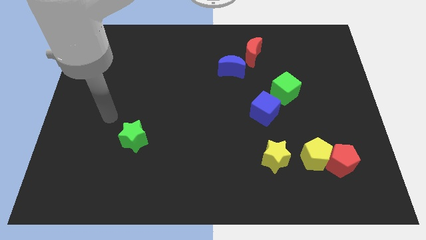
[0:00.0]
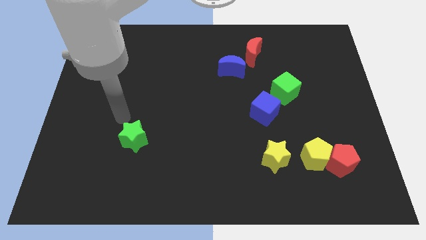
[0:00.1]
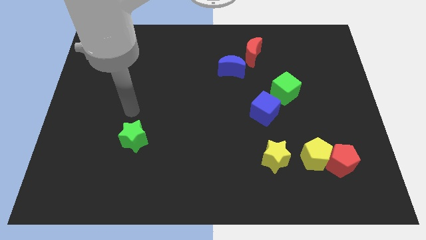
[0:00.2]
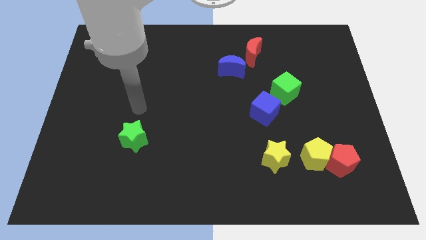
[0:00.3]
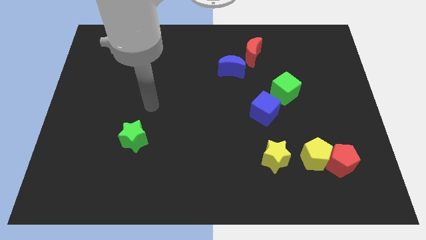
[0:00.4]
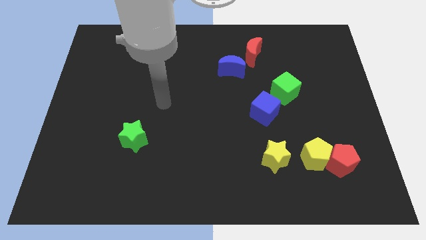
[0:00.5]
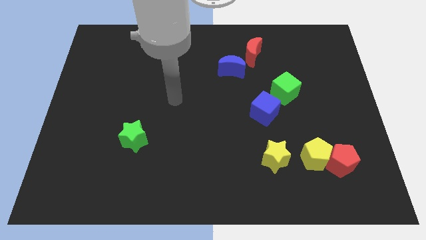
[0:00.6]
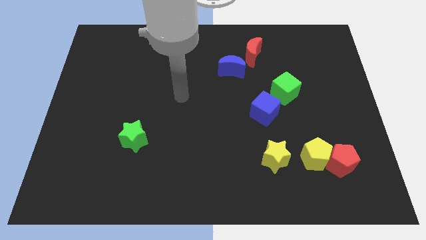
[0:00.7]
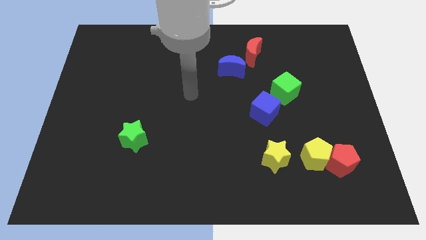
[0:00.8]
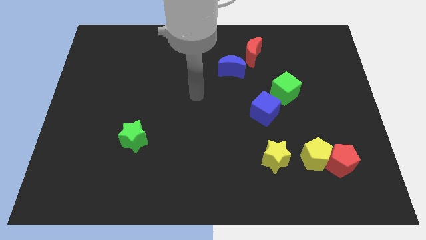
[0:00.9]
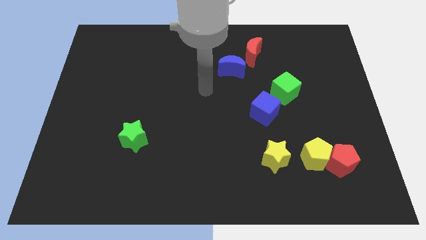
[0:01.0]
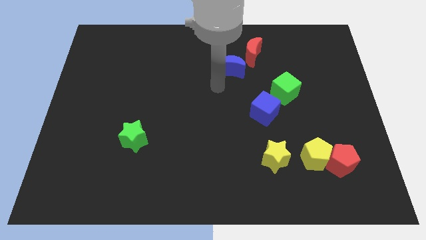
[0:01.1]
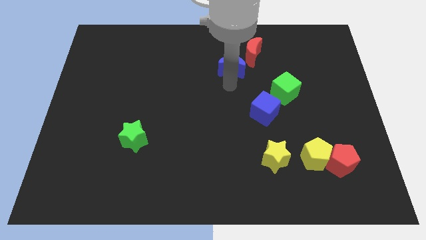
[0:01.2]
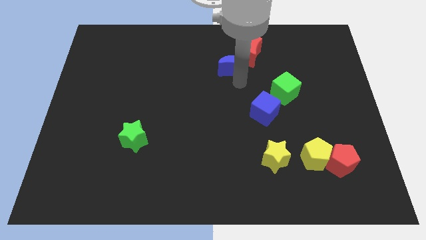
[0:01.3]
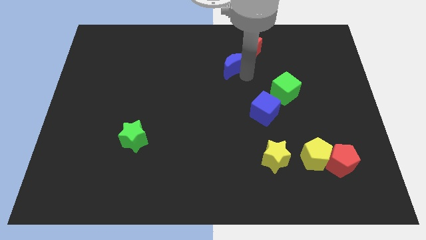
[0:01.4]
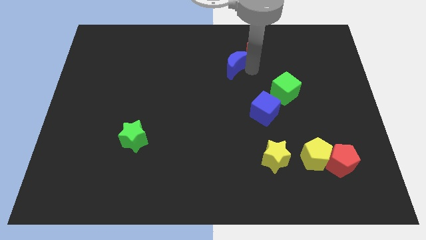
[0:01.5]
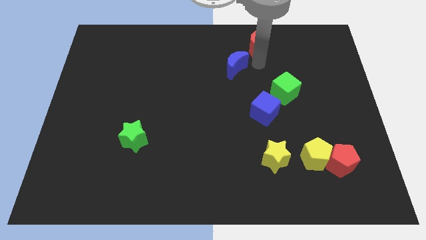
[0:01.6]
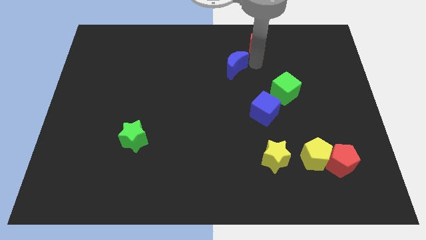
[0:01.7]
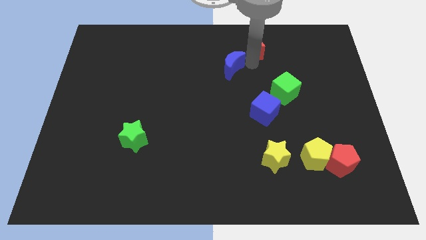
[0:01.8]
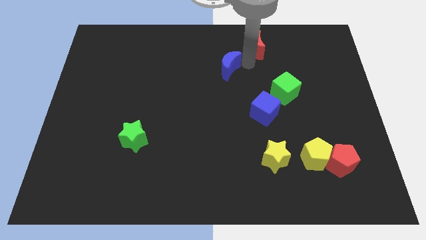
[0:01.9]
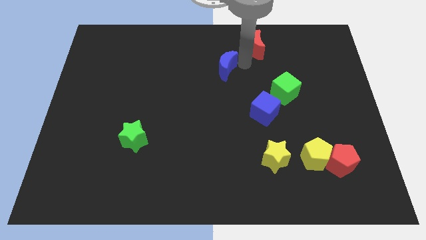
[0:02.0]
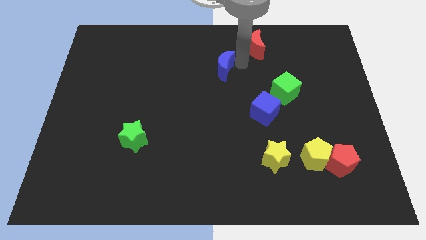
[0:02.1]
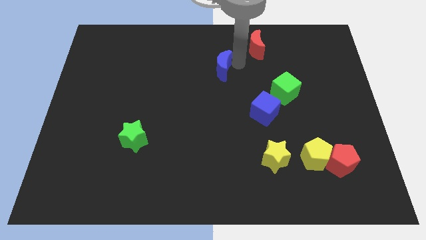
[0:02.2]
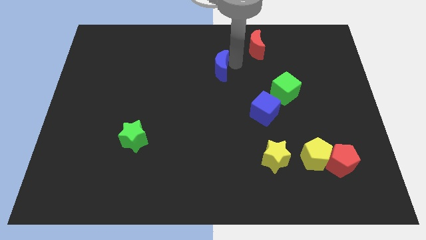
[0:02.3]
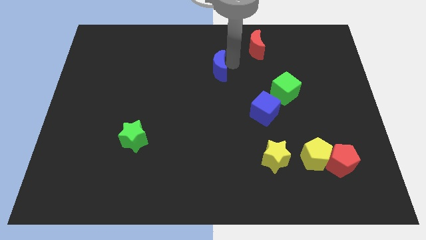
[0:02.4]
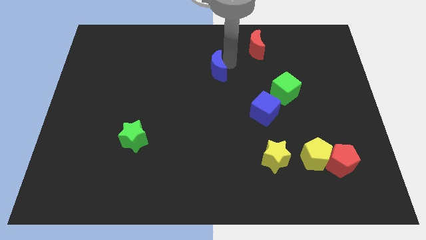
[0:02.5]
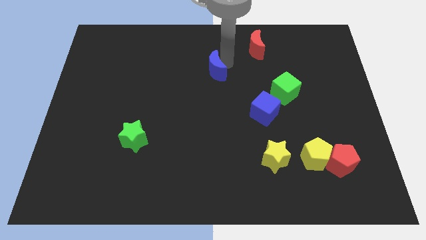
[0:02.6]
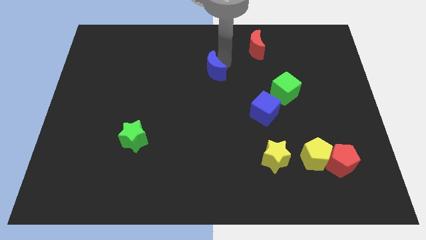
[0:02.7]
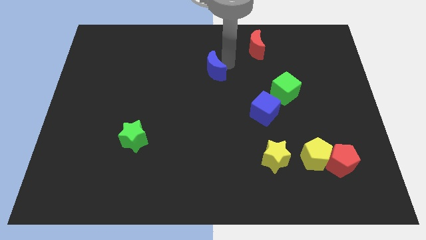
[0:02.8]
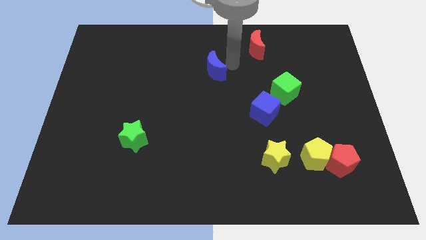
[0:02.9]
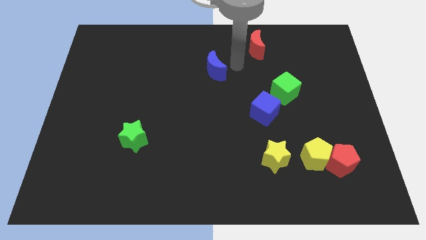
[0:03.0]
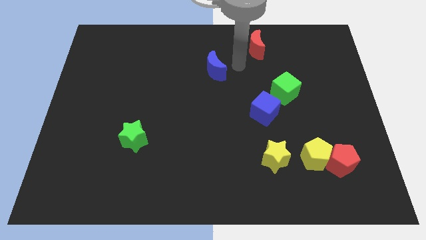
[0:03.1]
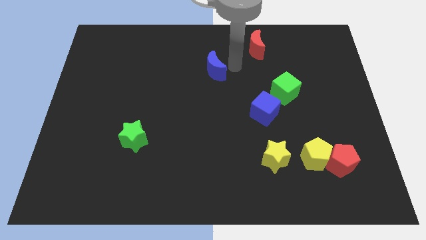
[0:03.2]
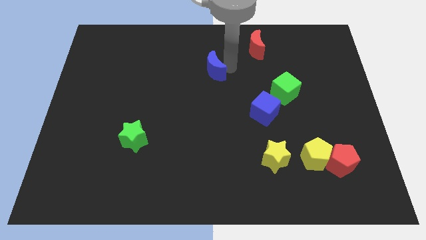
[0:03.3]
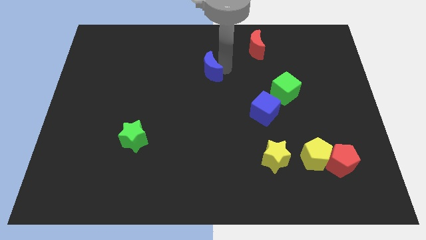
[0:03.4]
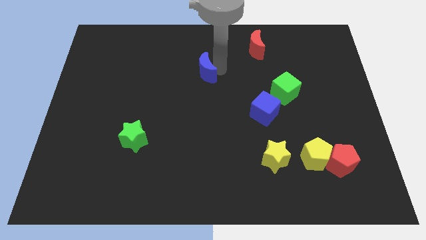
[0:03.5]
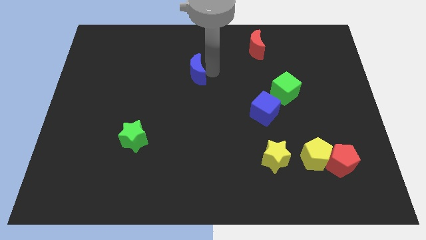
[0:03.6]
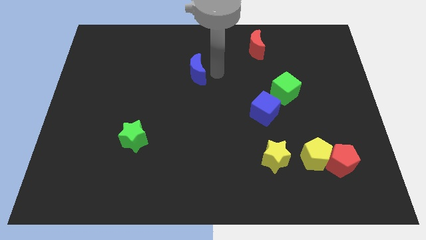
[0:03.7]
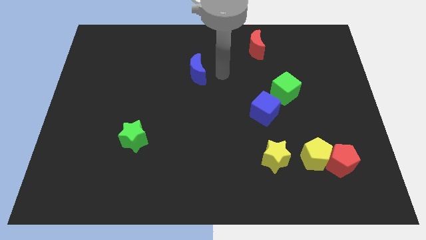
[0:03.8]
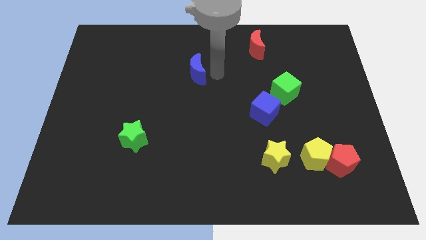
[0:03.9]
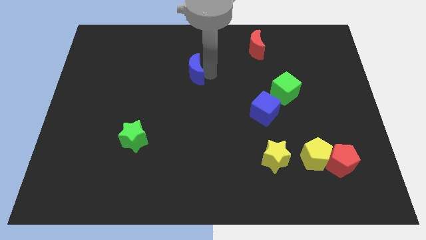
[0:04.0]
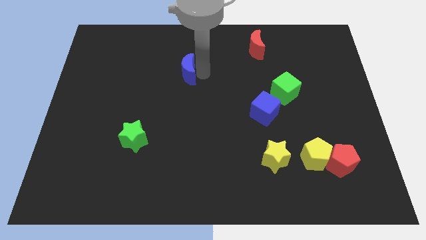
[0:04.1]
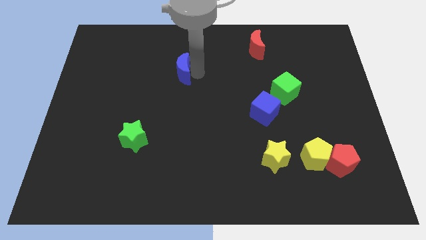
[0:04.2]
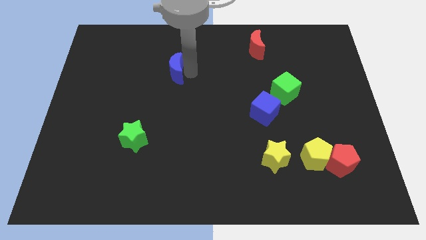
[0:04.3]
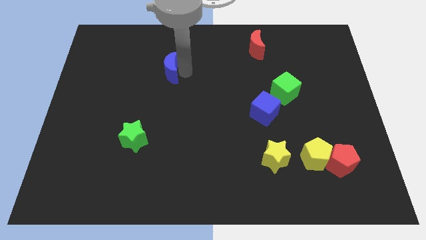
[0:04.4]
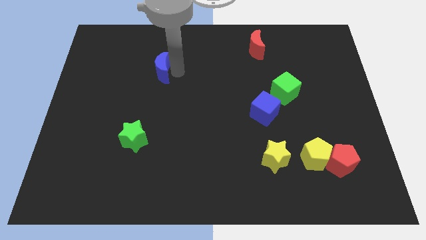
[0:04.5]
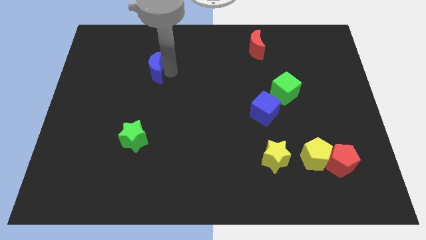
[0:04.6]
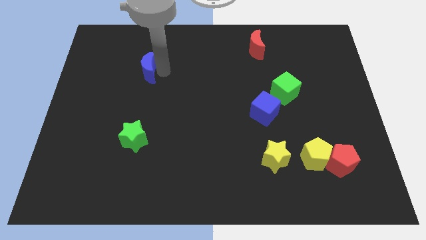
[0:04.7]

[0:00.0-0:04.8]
slide the blue moon to the left

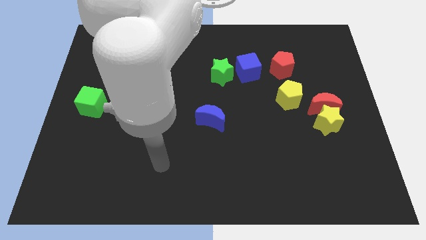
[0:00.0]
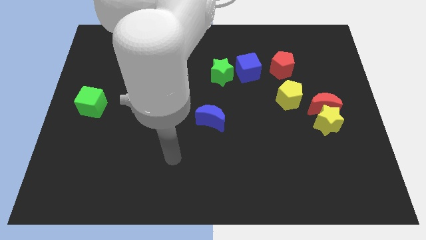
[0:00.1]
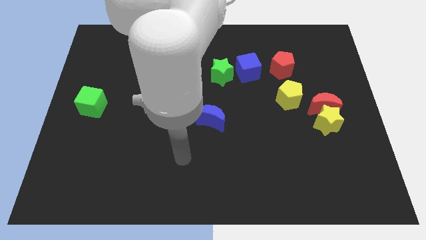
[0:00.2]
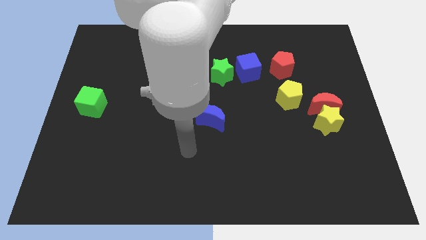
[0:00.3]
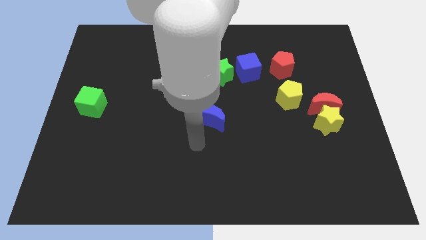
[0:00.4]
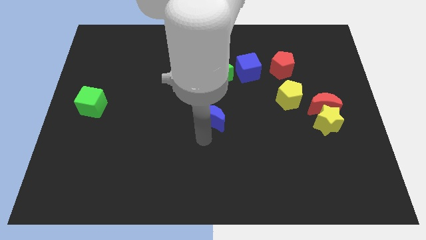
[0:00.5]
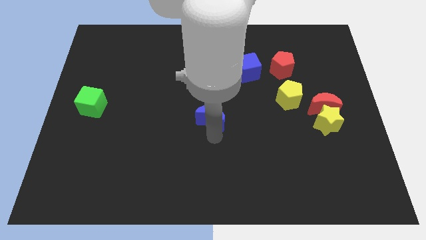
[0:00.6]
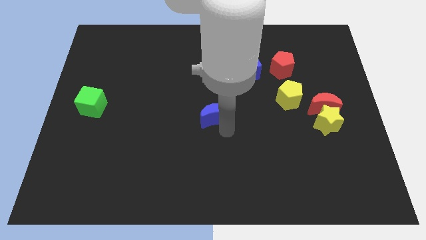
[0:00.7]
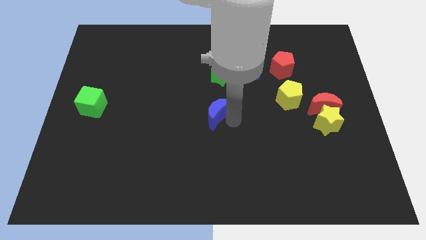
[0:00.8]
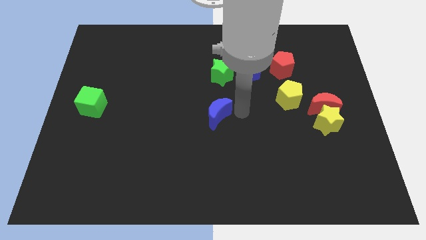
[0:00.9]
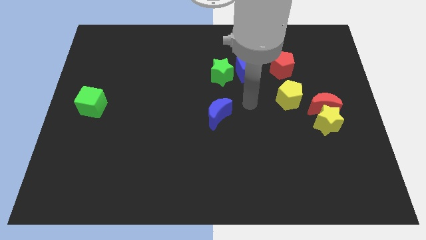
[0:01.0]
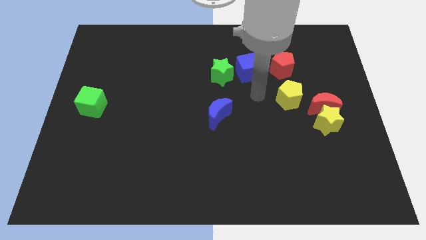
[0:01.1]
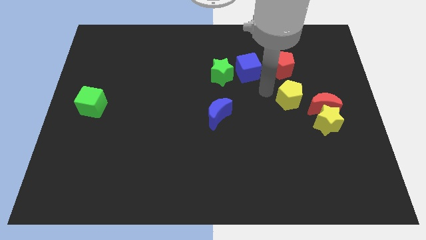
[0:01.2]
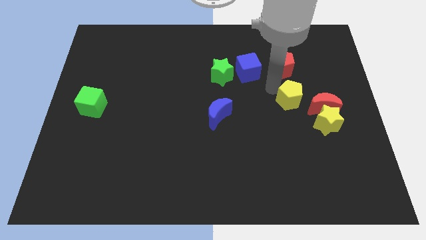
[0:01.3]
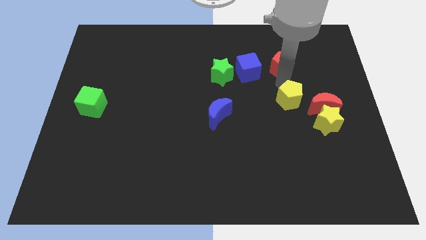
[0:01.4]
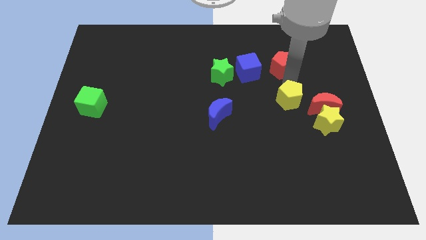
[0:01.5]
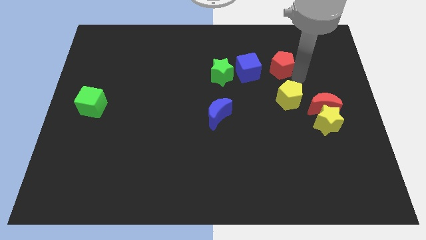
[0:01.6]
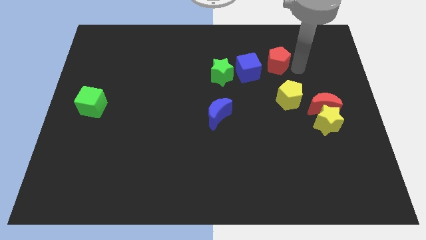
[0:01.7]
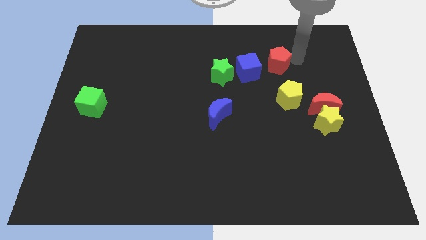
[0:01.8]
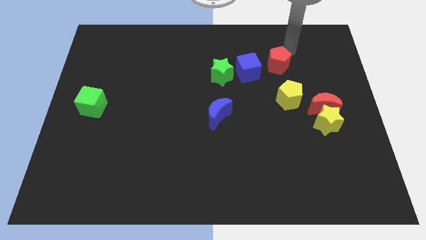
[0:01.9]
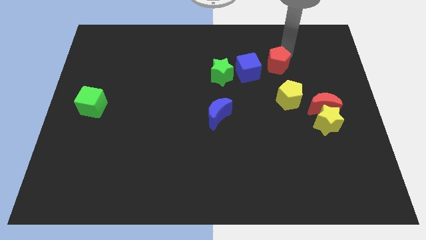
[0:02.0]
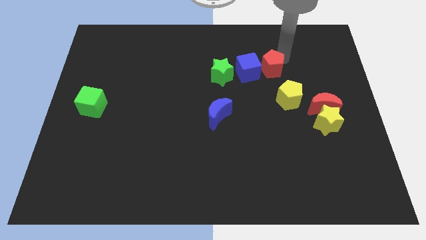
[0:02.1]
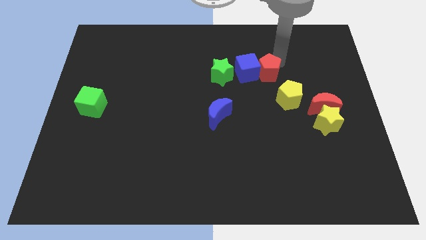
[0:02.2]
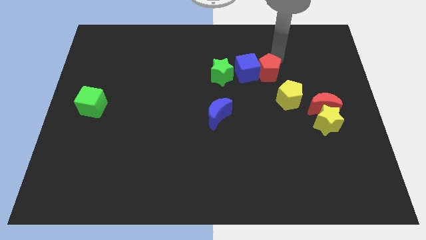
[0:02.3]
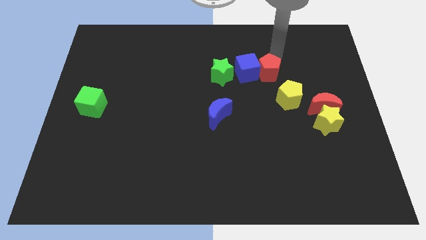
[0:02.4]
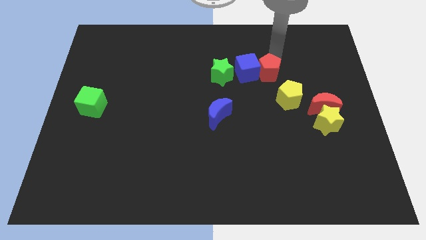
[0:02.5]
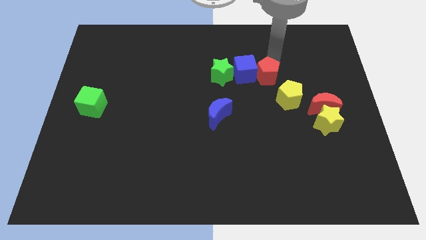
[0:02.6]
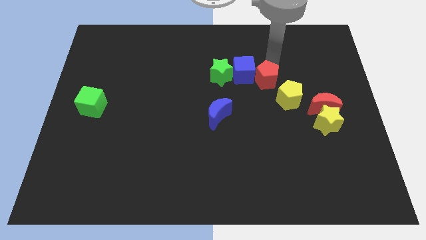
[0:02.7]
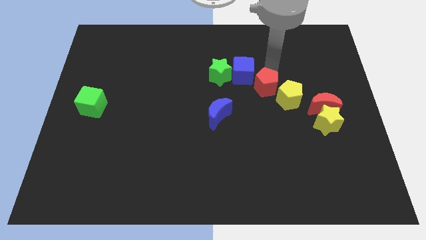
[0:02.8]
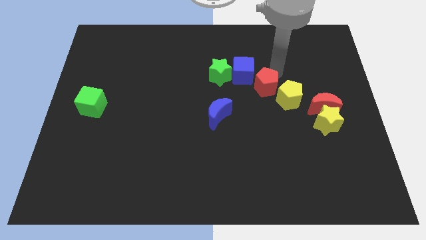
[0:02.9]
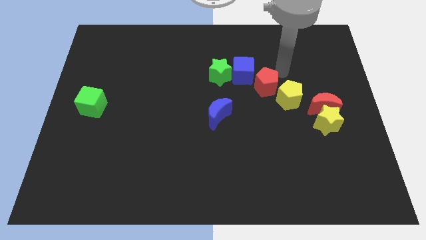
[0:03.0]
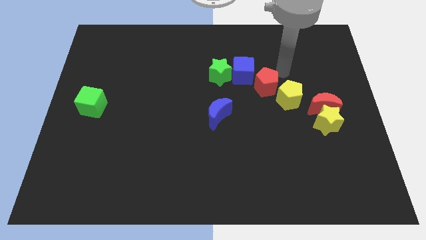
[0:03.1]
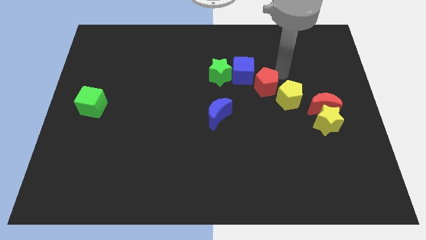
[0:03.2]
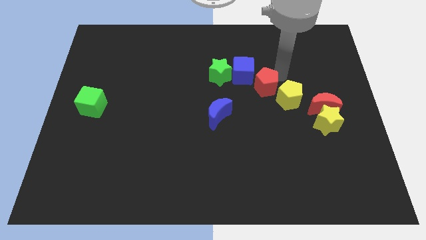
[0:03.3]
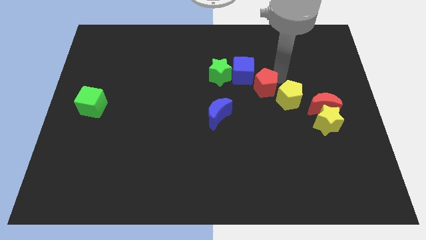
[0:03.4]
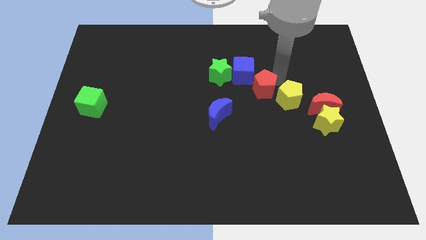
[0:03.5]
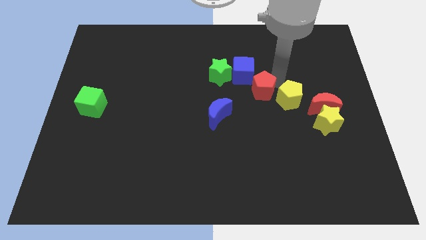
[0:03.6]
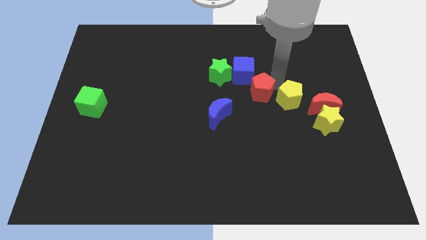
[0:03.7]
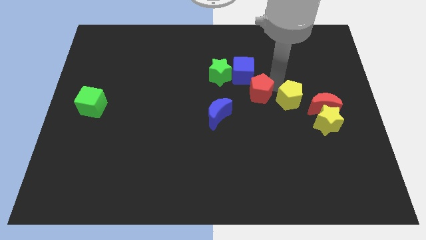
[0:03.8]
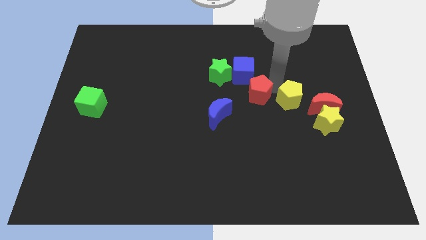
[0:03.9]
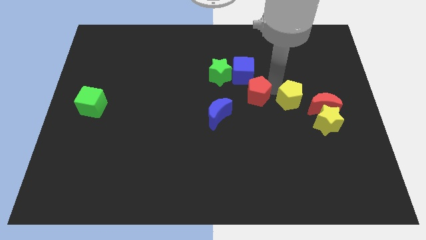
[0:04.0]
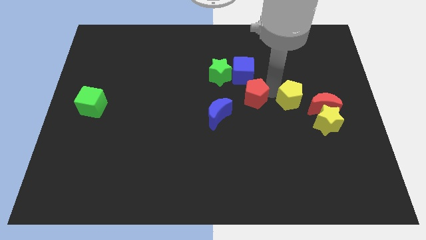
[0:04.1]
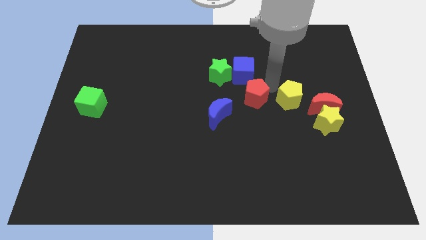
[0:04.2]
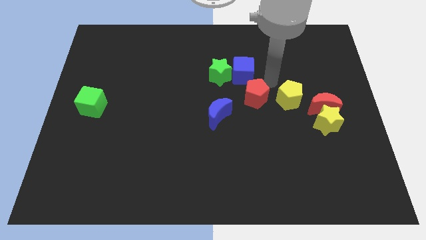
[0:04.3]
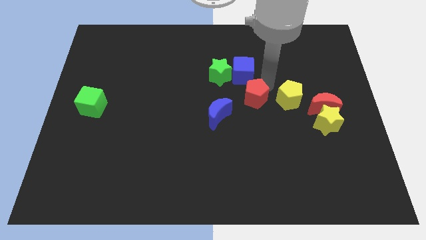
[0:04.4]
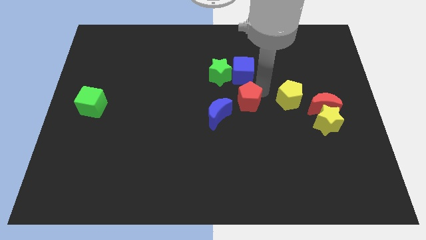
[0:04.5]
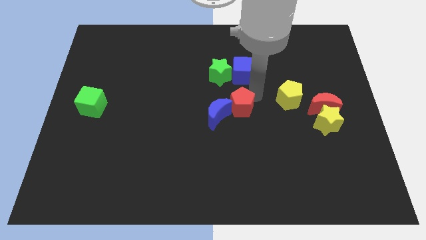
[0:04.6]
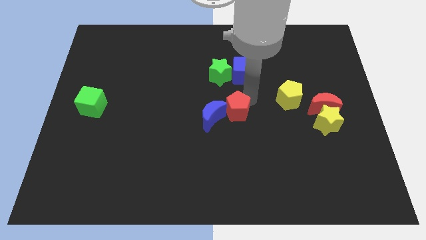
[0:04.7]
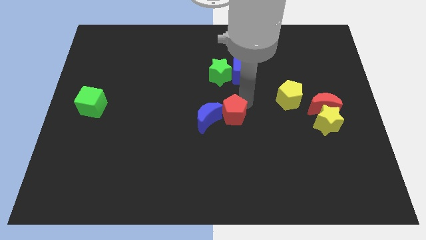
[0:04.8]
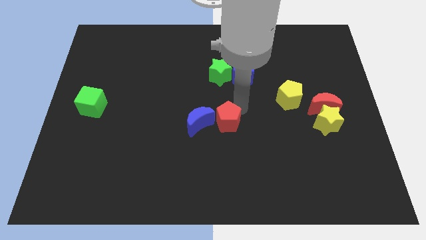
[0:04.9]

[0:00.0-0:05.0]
push the red pentagon down and to the left diagonally
